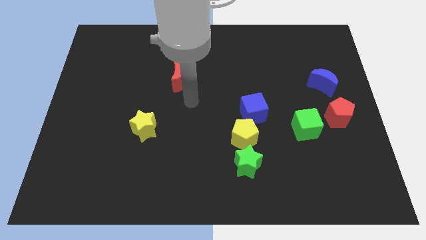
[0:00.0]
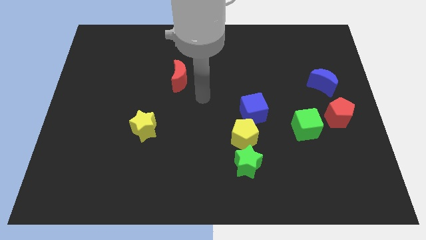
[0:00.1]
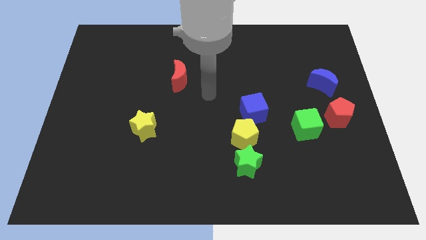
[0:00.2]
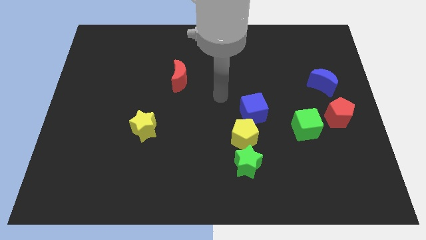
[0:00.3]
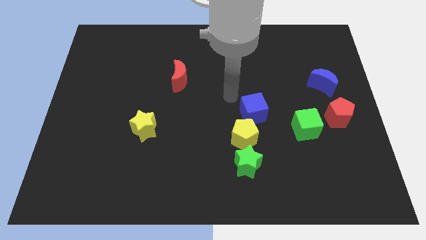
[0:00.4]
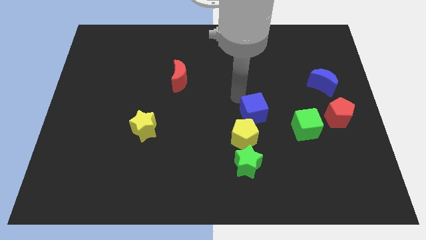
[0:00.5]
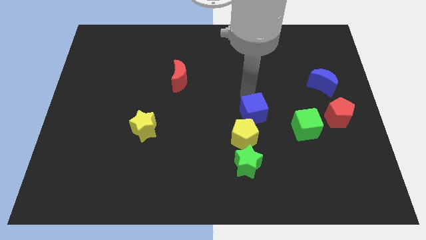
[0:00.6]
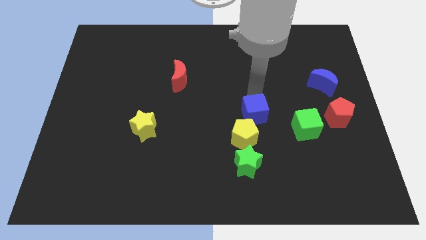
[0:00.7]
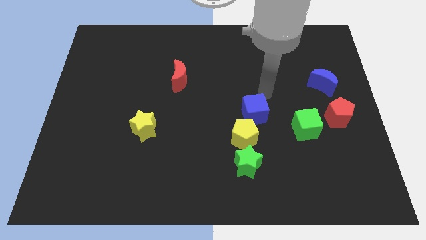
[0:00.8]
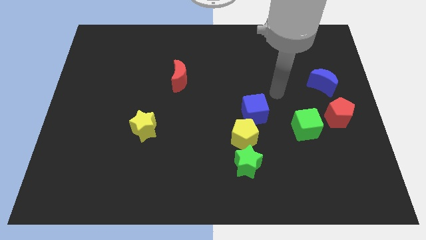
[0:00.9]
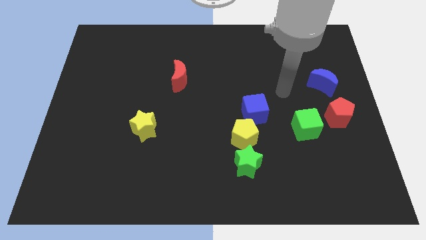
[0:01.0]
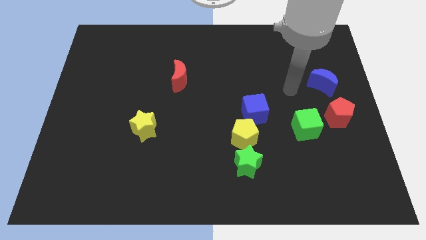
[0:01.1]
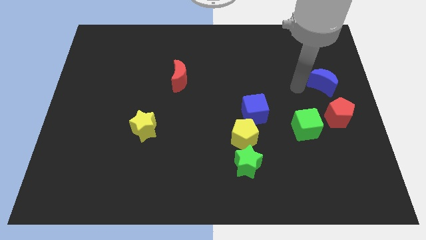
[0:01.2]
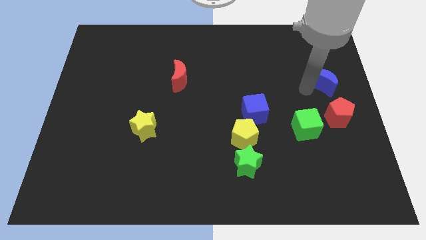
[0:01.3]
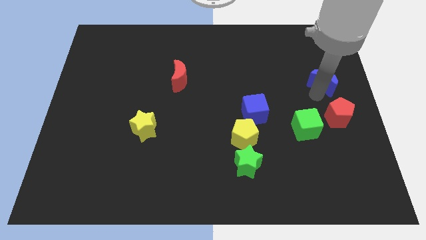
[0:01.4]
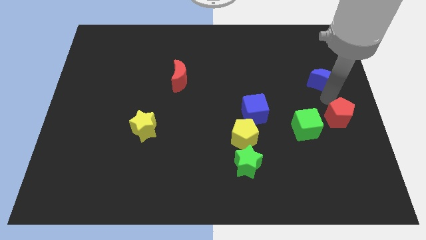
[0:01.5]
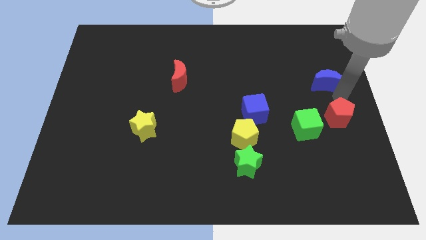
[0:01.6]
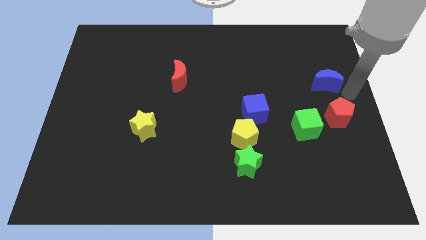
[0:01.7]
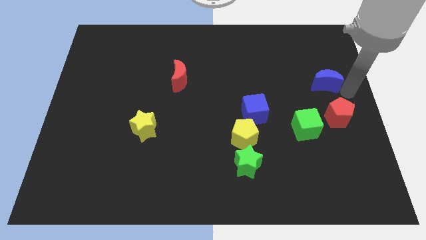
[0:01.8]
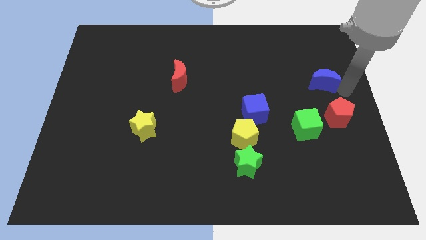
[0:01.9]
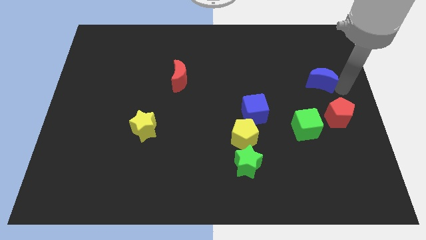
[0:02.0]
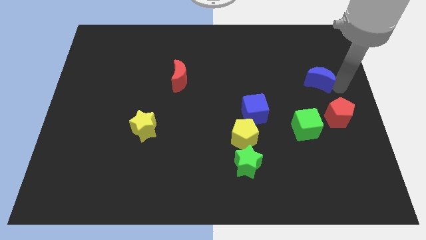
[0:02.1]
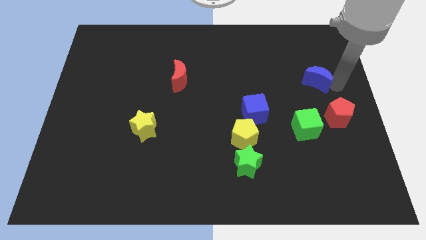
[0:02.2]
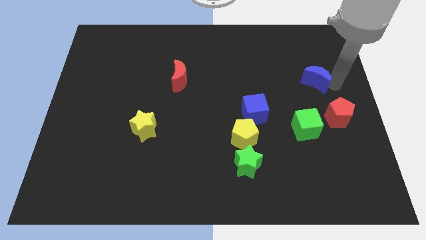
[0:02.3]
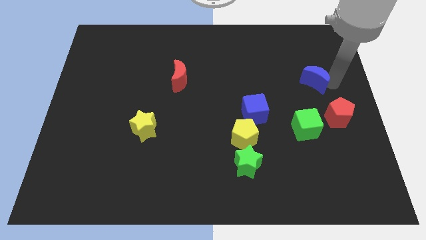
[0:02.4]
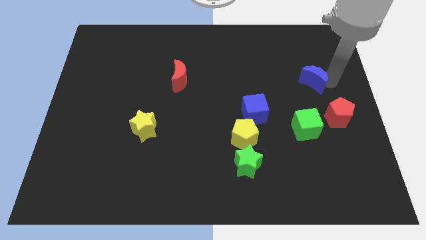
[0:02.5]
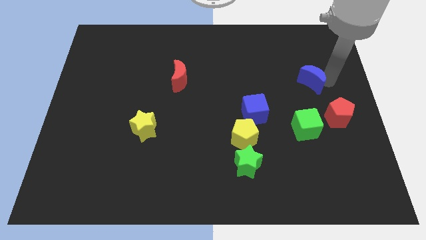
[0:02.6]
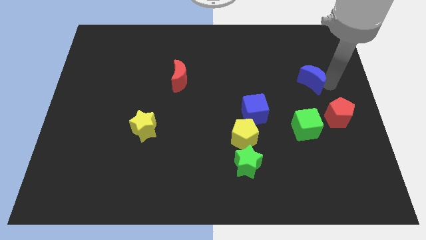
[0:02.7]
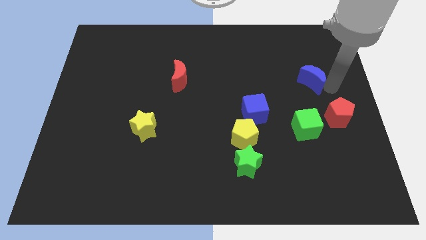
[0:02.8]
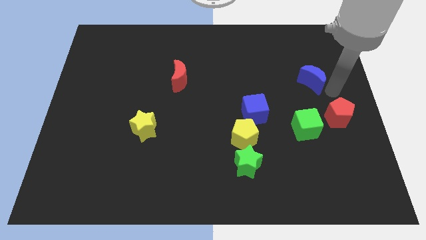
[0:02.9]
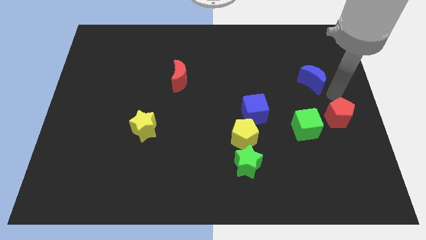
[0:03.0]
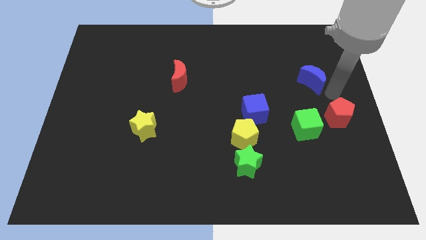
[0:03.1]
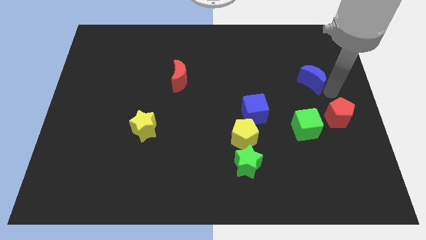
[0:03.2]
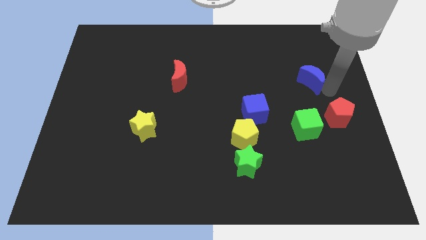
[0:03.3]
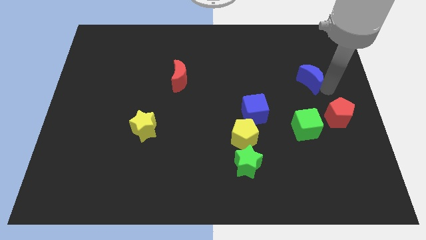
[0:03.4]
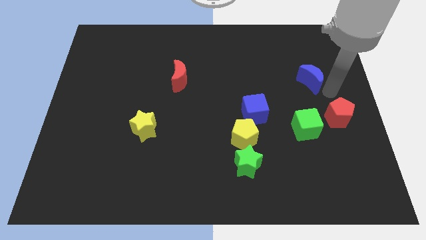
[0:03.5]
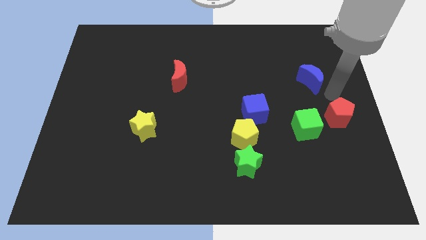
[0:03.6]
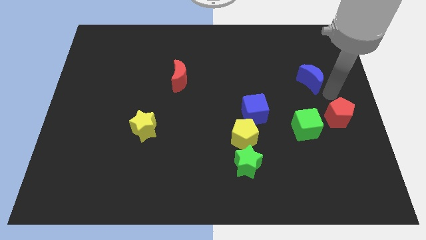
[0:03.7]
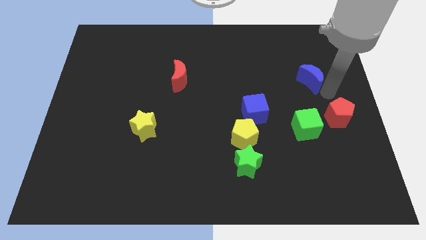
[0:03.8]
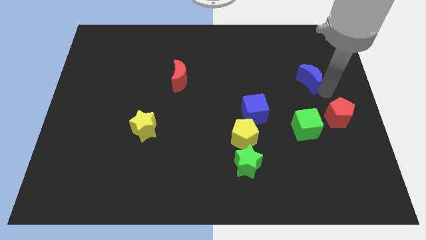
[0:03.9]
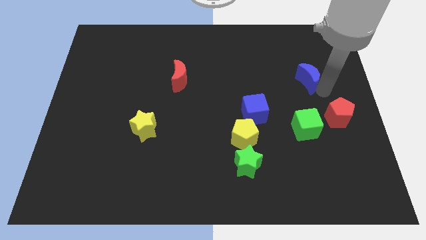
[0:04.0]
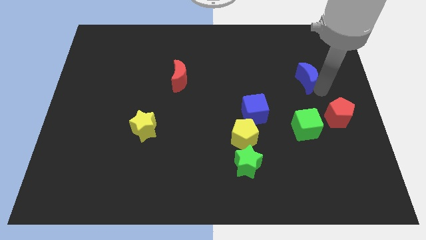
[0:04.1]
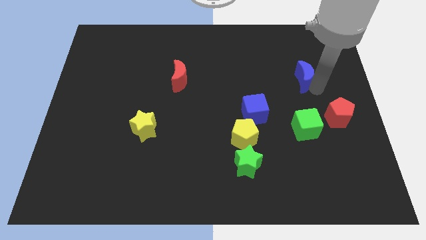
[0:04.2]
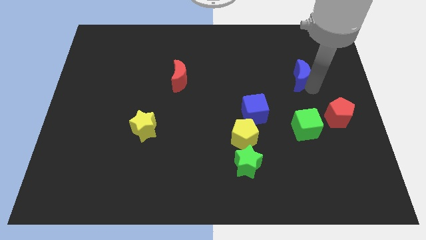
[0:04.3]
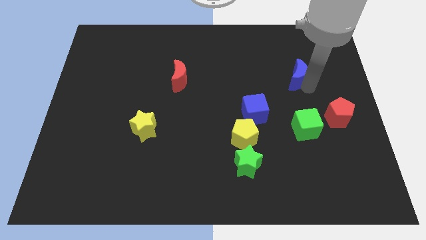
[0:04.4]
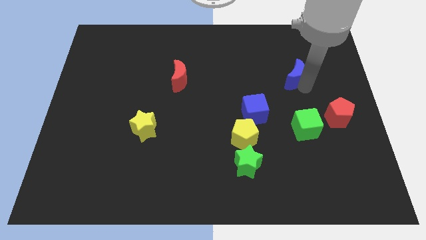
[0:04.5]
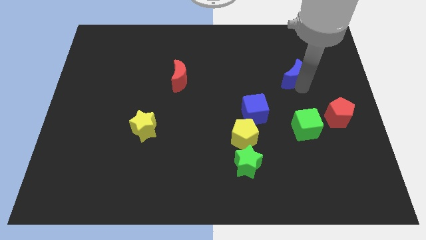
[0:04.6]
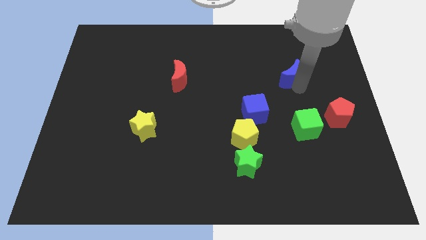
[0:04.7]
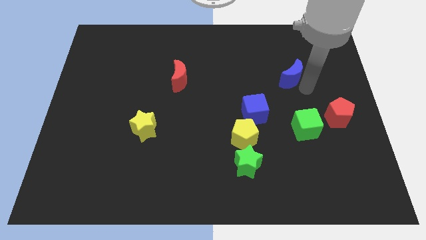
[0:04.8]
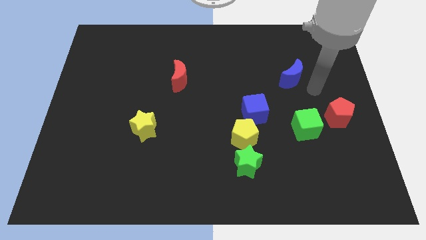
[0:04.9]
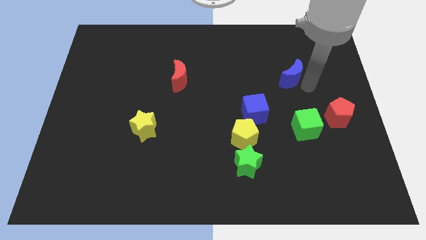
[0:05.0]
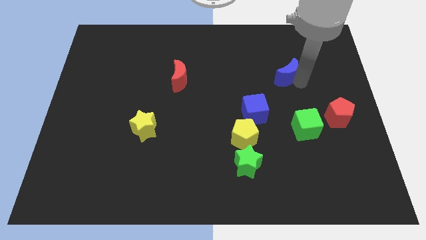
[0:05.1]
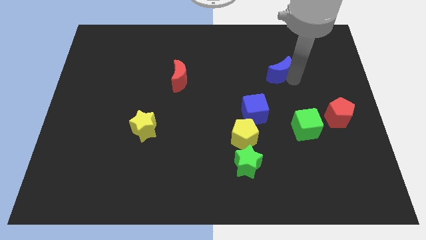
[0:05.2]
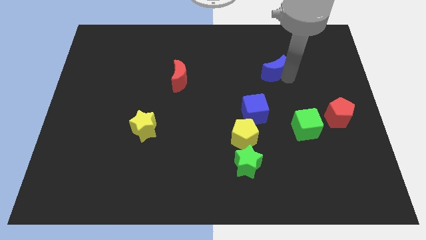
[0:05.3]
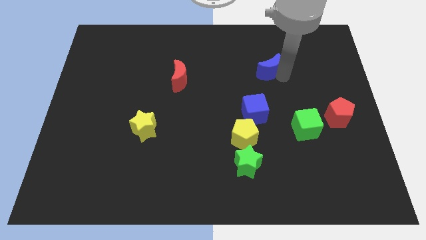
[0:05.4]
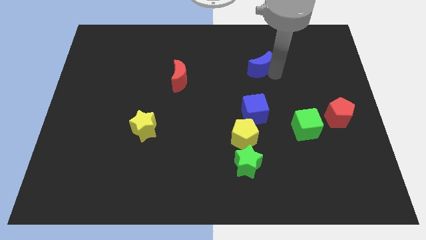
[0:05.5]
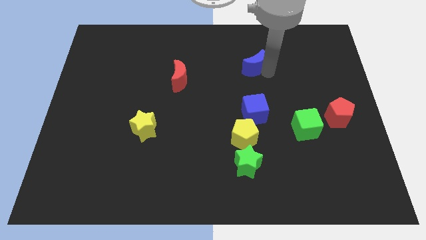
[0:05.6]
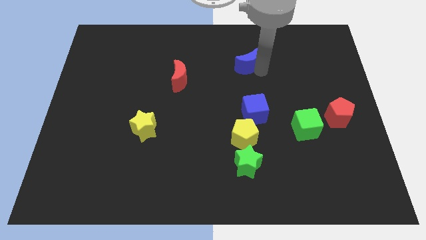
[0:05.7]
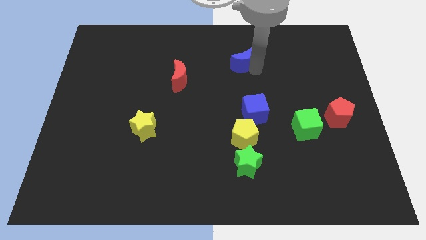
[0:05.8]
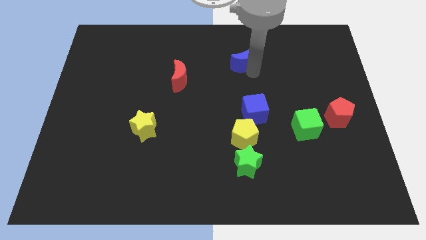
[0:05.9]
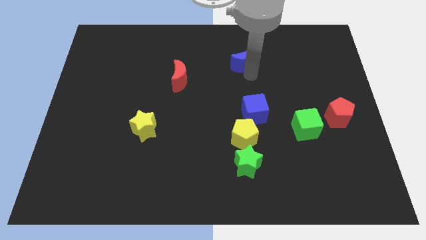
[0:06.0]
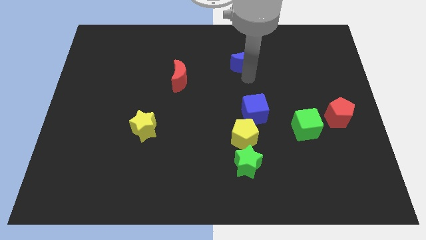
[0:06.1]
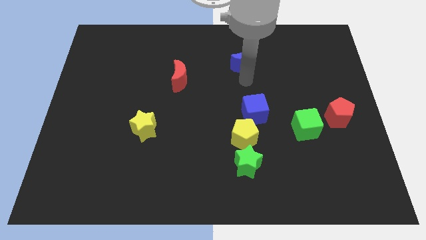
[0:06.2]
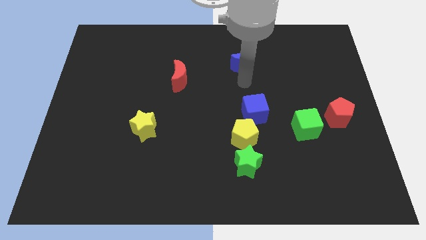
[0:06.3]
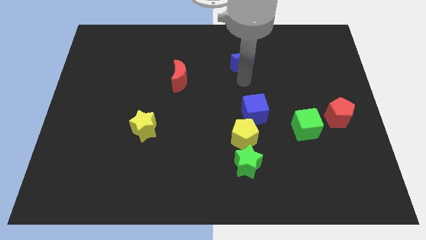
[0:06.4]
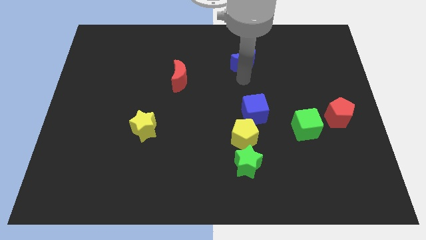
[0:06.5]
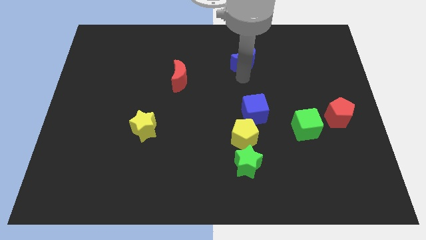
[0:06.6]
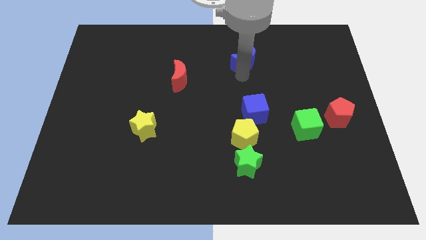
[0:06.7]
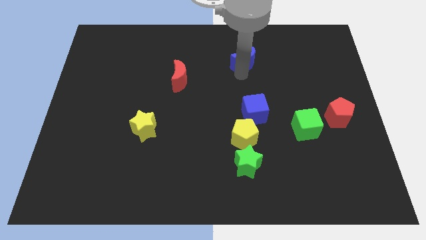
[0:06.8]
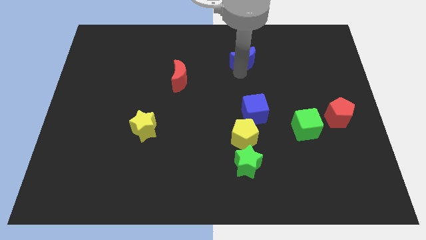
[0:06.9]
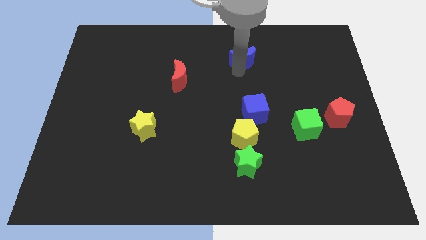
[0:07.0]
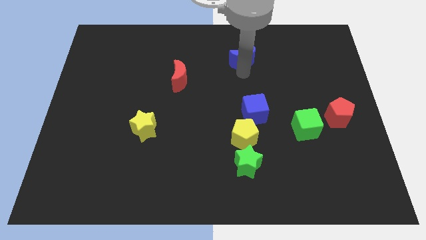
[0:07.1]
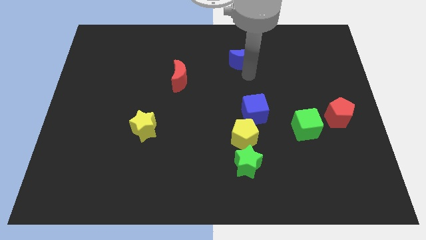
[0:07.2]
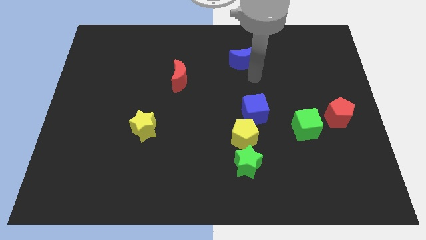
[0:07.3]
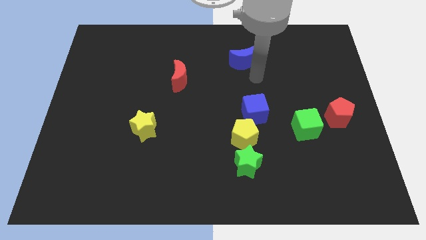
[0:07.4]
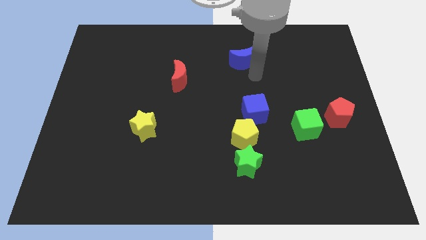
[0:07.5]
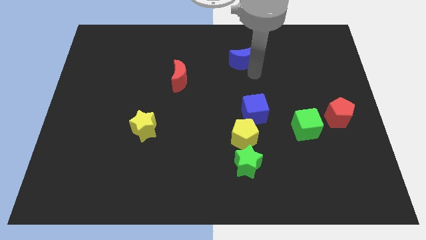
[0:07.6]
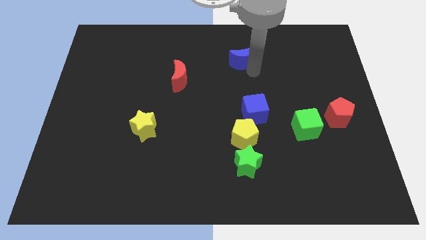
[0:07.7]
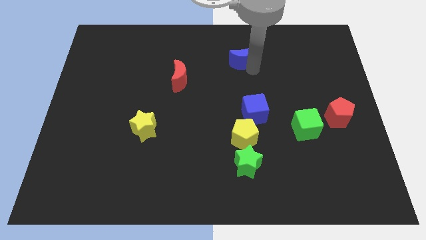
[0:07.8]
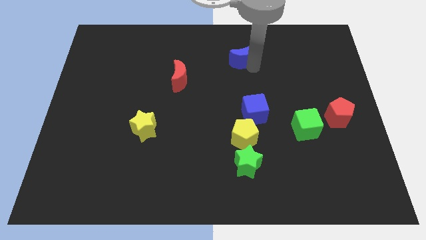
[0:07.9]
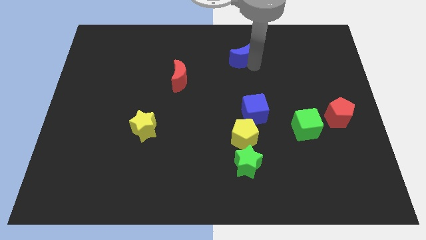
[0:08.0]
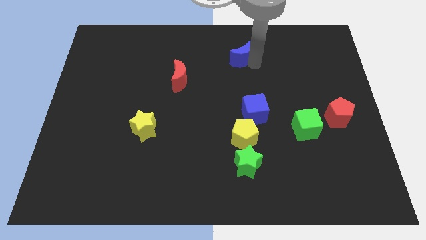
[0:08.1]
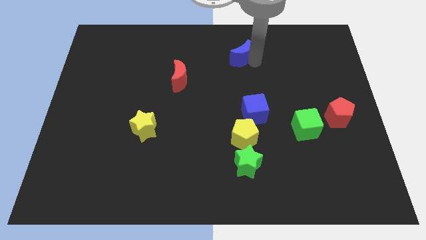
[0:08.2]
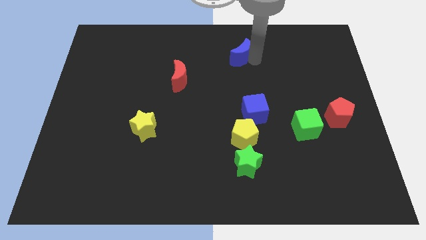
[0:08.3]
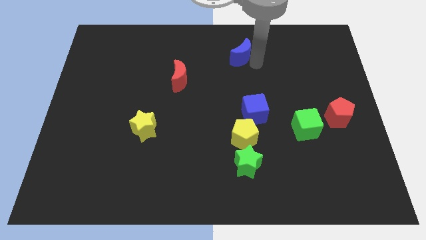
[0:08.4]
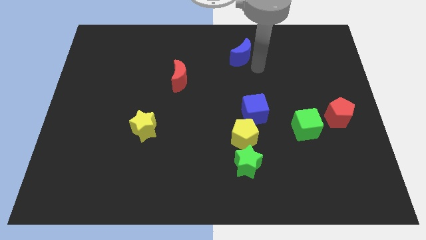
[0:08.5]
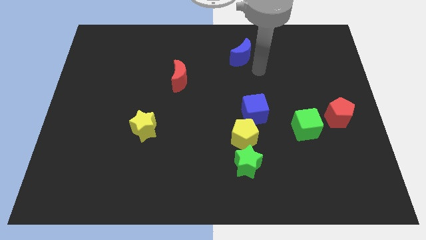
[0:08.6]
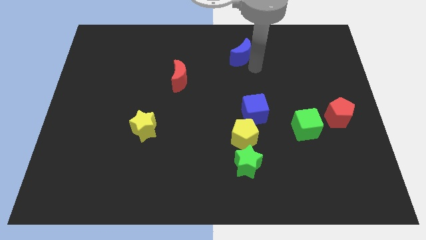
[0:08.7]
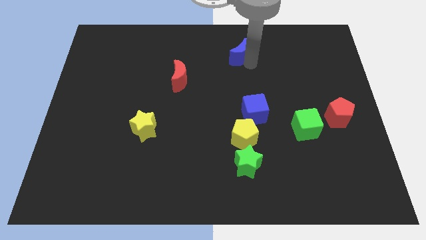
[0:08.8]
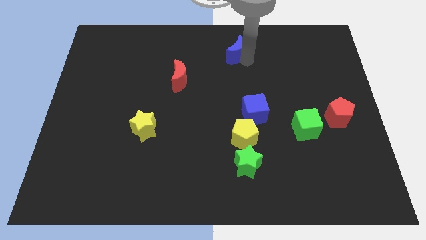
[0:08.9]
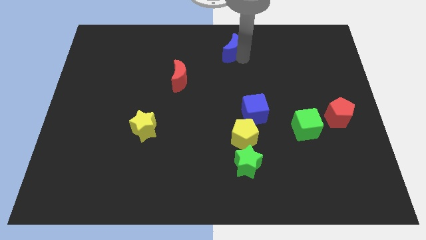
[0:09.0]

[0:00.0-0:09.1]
put the blue moon to the top
